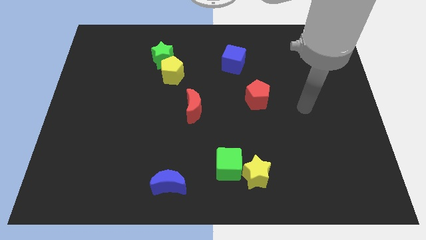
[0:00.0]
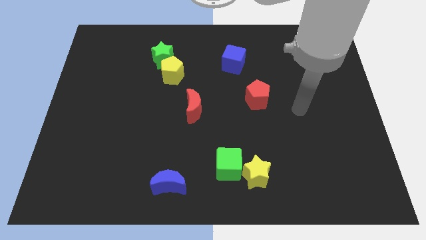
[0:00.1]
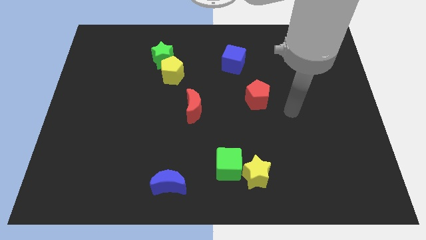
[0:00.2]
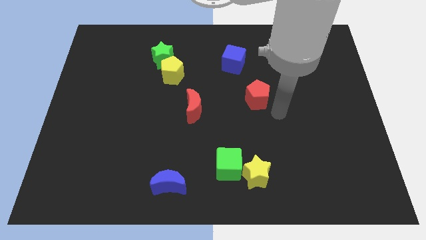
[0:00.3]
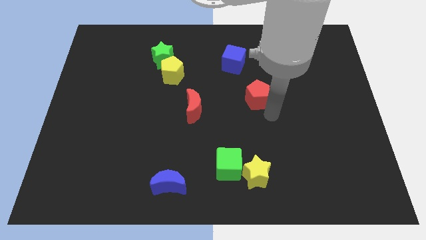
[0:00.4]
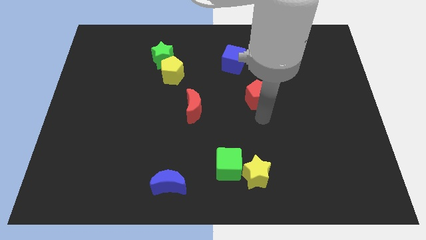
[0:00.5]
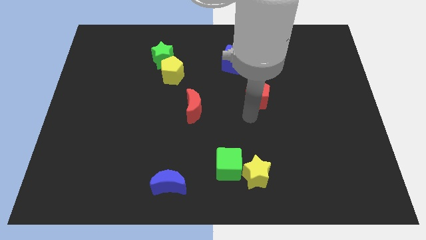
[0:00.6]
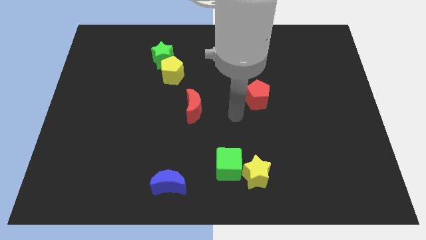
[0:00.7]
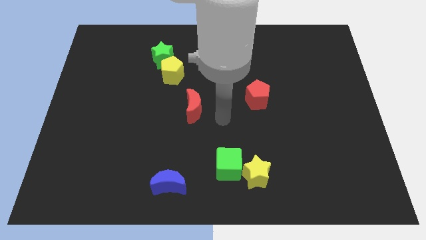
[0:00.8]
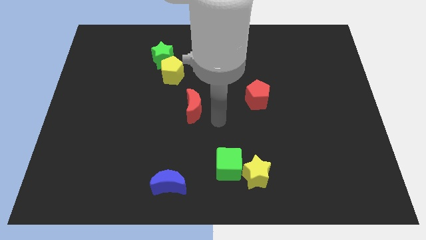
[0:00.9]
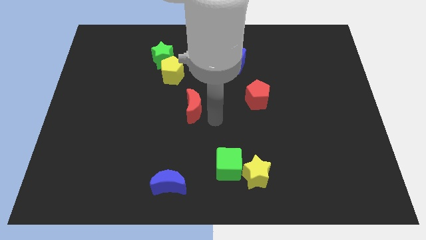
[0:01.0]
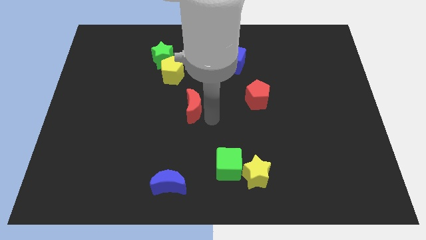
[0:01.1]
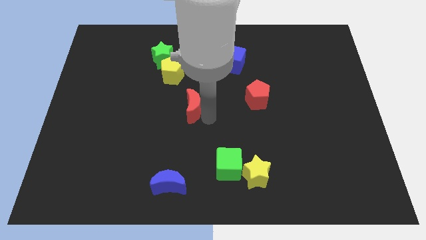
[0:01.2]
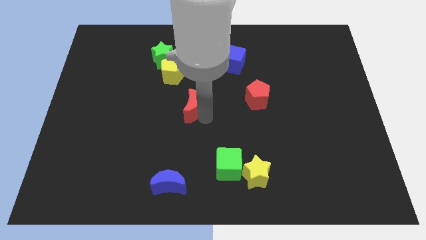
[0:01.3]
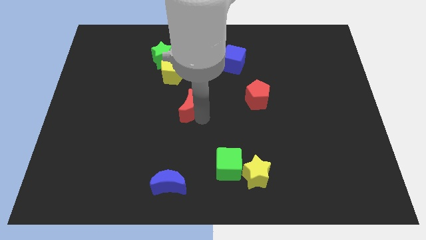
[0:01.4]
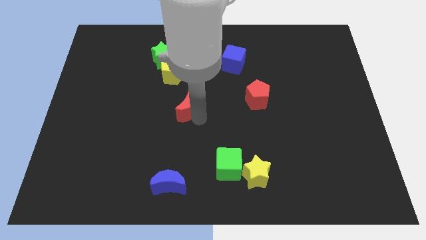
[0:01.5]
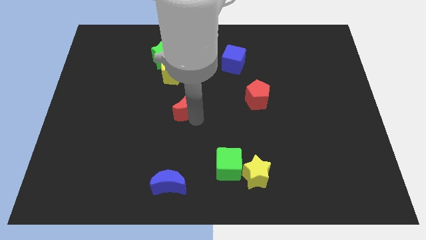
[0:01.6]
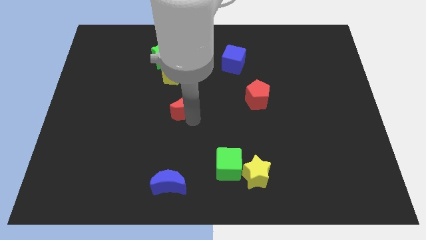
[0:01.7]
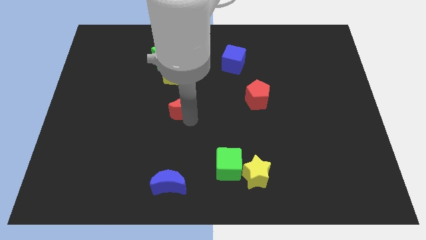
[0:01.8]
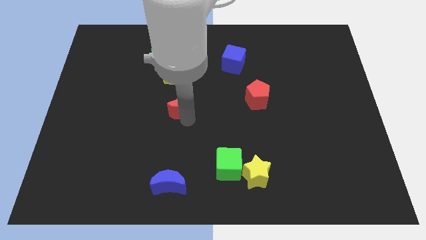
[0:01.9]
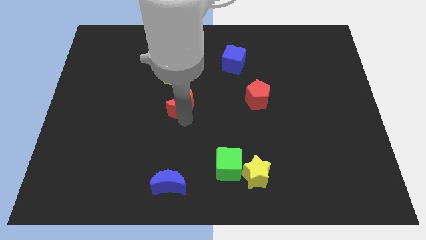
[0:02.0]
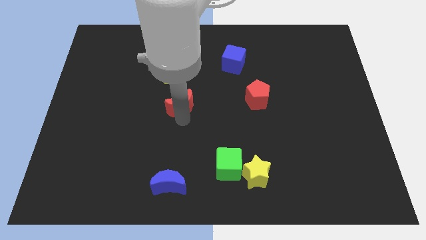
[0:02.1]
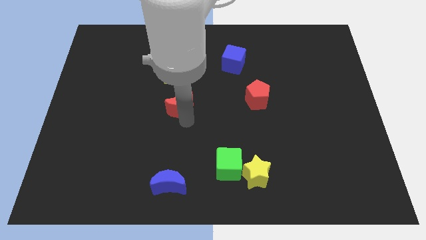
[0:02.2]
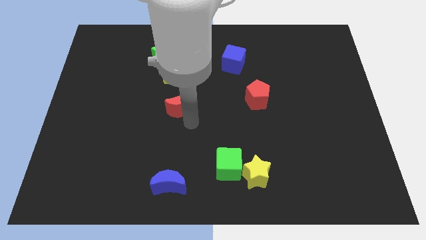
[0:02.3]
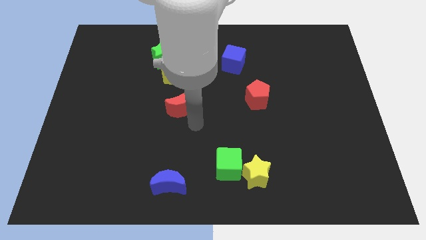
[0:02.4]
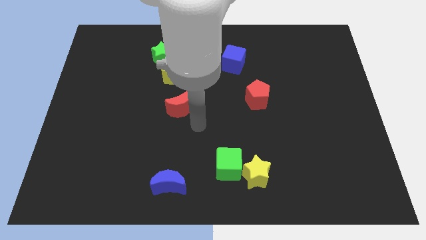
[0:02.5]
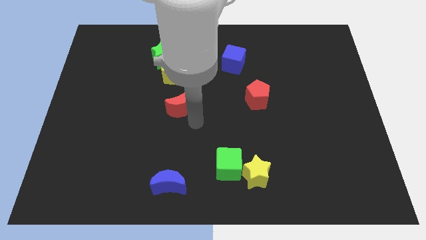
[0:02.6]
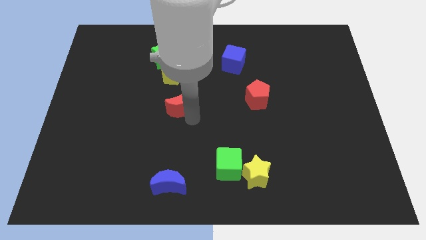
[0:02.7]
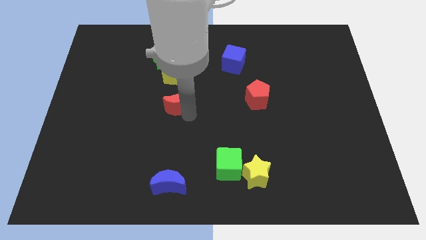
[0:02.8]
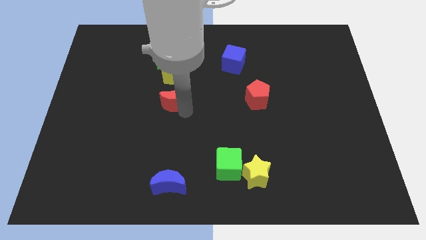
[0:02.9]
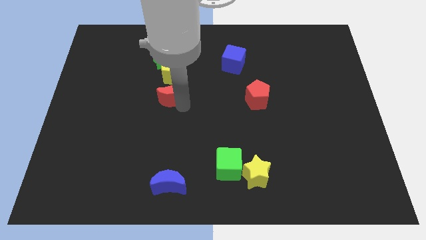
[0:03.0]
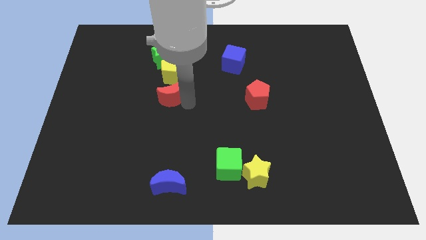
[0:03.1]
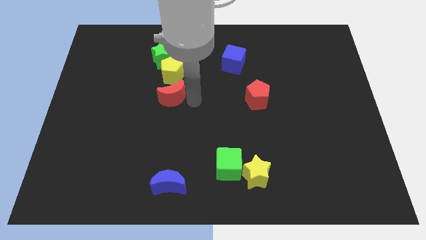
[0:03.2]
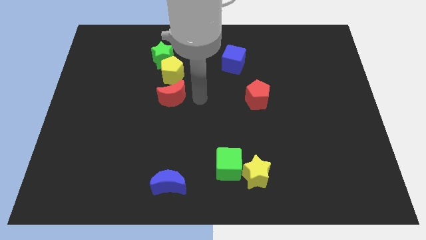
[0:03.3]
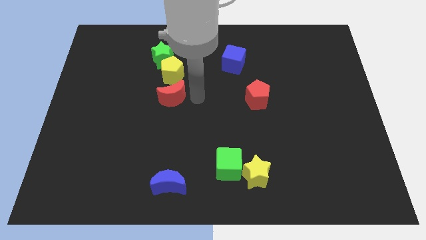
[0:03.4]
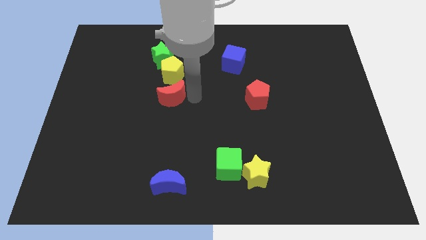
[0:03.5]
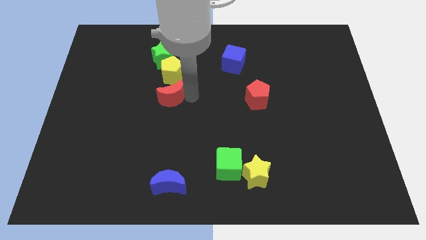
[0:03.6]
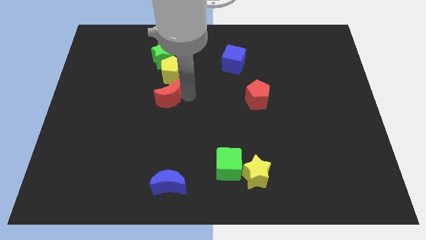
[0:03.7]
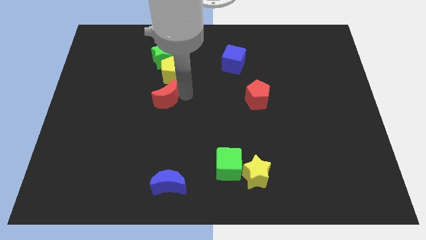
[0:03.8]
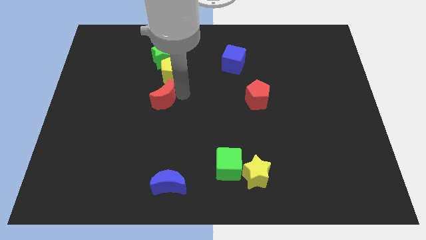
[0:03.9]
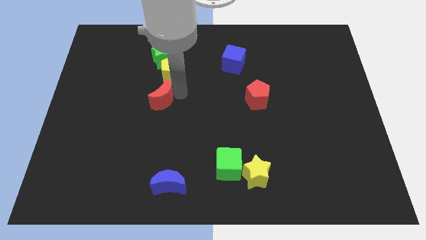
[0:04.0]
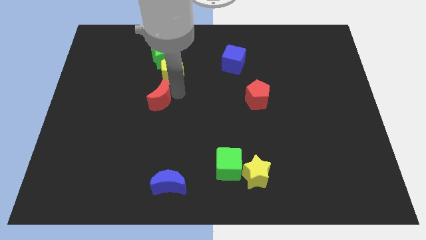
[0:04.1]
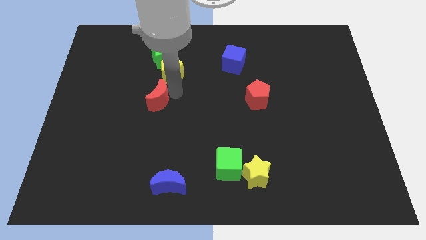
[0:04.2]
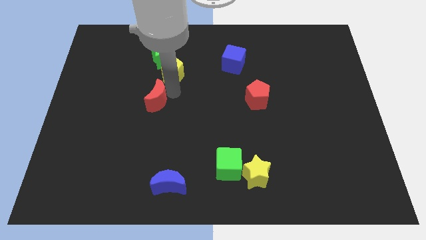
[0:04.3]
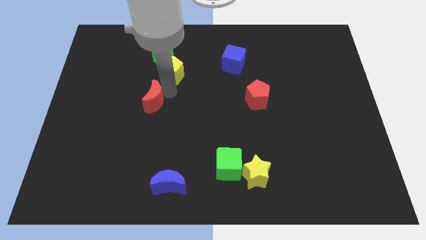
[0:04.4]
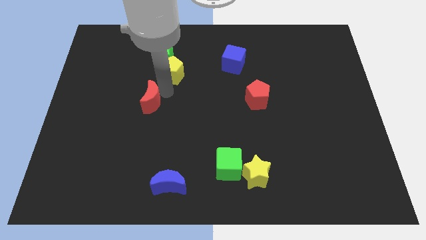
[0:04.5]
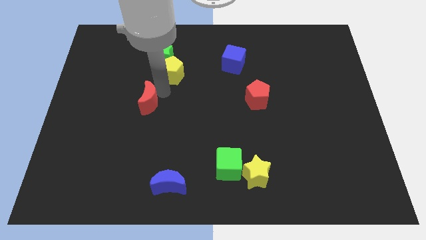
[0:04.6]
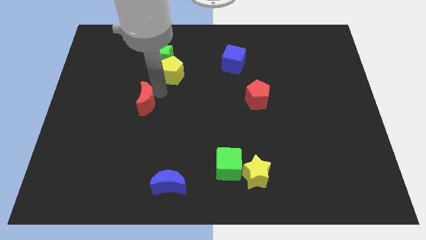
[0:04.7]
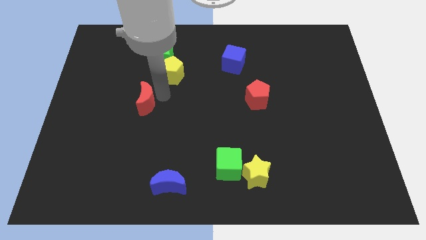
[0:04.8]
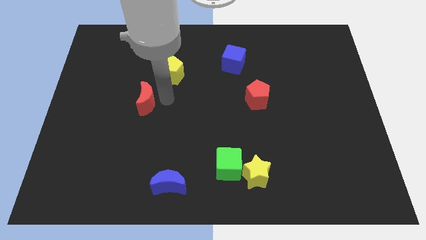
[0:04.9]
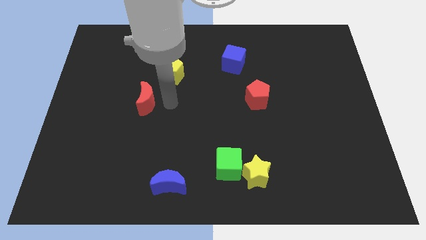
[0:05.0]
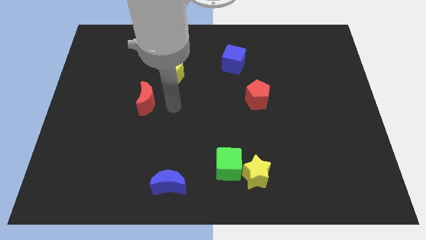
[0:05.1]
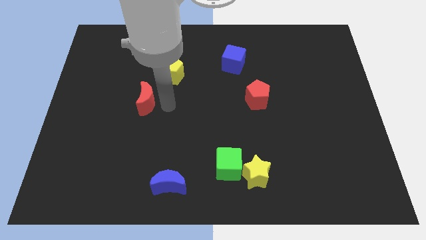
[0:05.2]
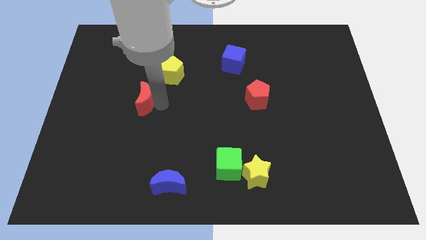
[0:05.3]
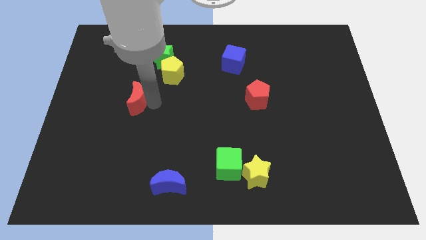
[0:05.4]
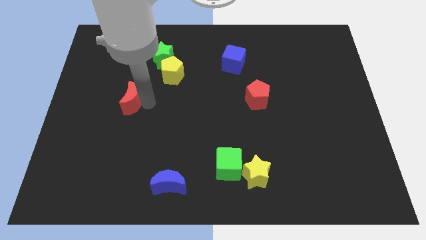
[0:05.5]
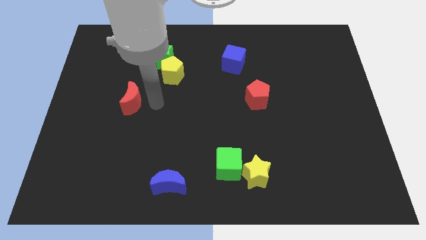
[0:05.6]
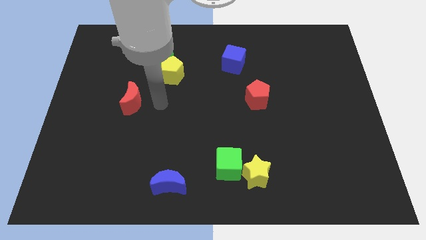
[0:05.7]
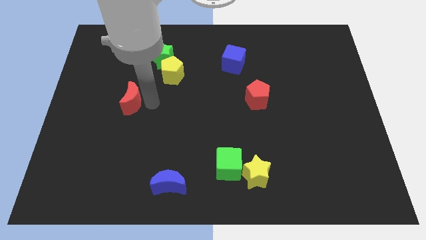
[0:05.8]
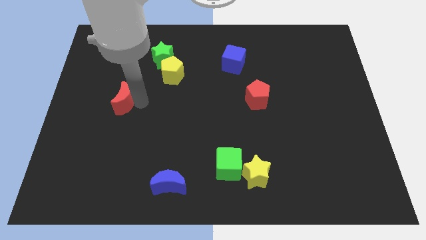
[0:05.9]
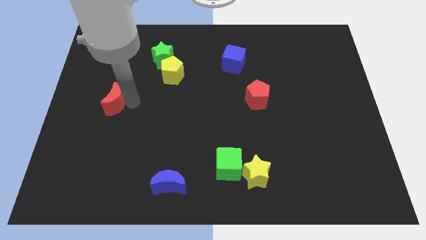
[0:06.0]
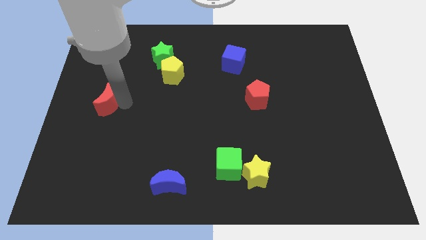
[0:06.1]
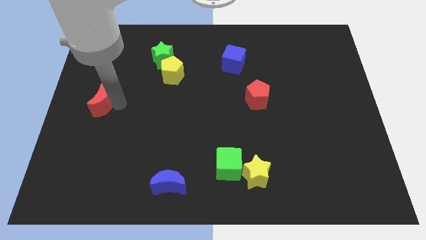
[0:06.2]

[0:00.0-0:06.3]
move the red moon to the left side of the board

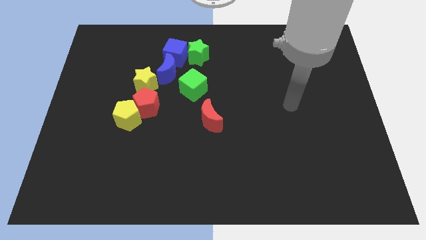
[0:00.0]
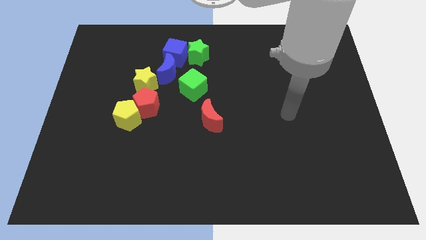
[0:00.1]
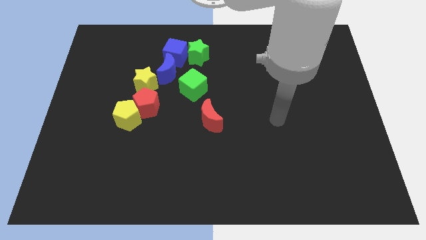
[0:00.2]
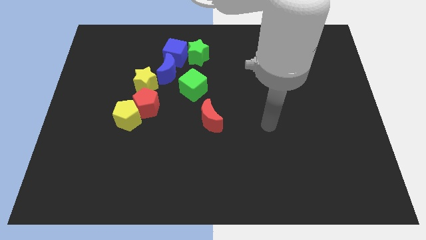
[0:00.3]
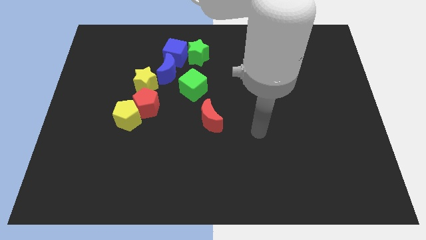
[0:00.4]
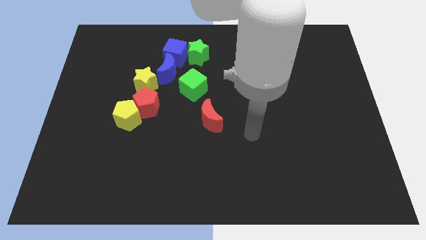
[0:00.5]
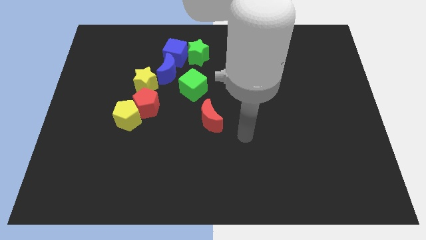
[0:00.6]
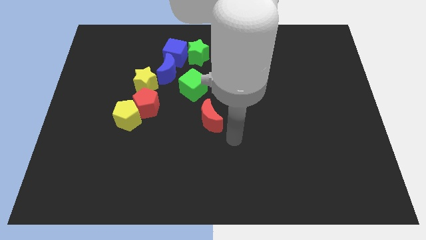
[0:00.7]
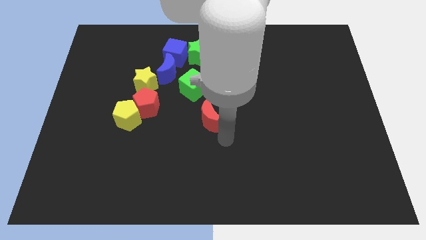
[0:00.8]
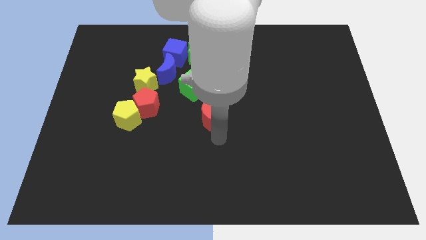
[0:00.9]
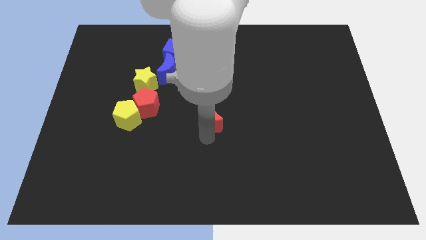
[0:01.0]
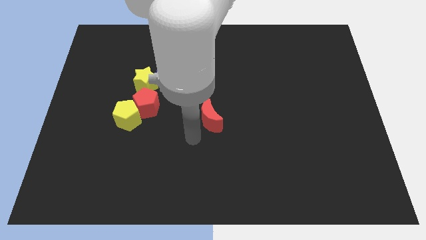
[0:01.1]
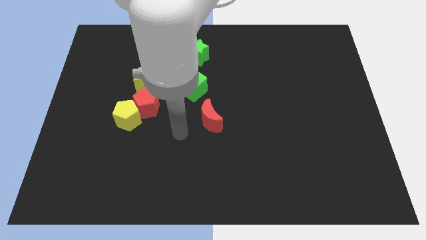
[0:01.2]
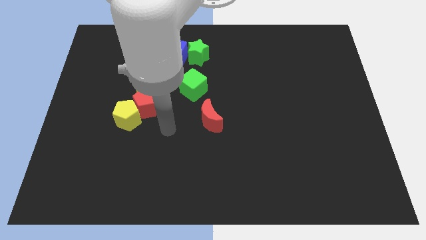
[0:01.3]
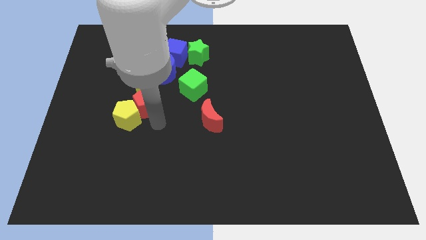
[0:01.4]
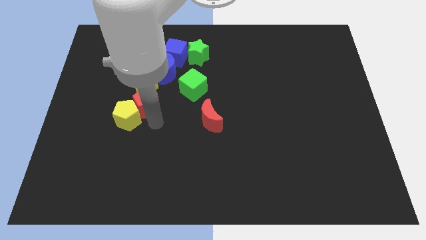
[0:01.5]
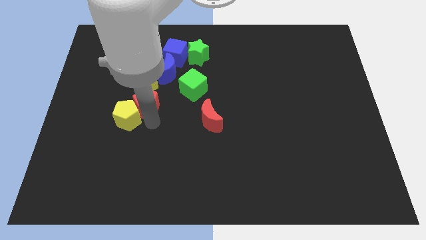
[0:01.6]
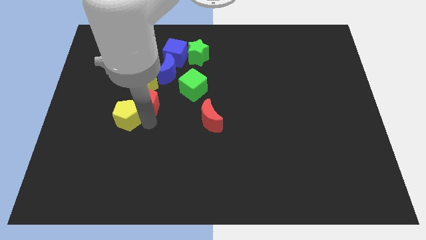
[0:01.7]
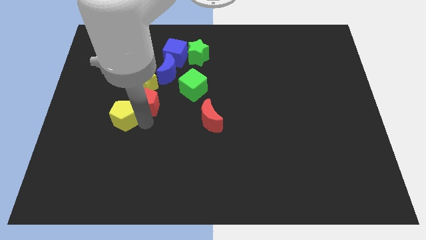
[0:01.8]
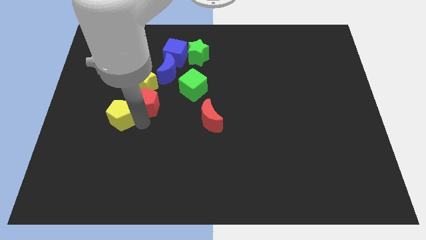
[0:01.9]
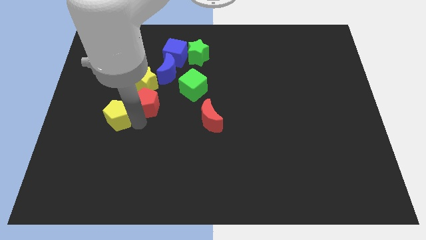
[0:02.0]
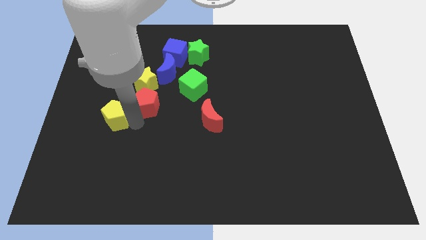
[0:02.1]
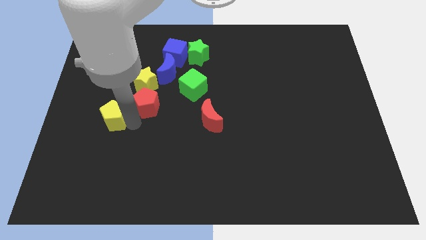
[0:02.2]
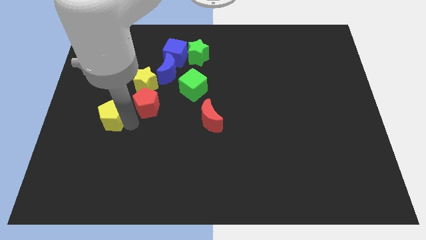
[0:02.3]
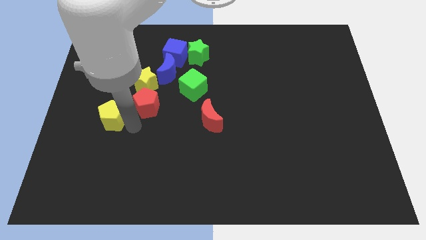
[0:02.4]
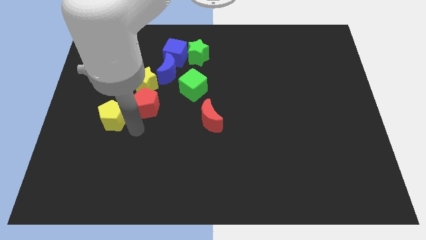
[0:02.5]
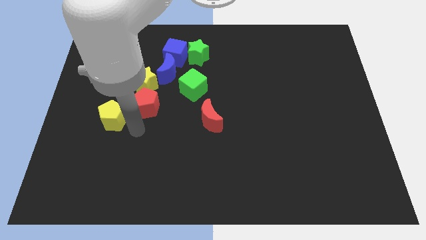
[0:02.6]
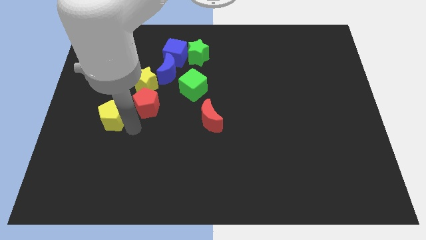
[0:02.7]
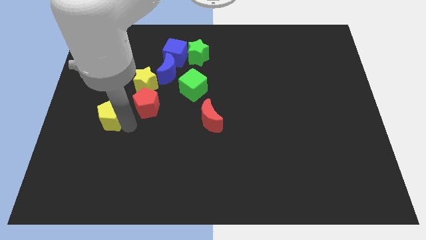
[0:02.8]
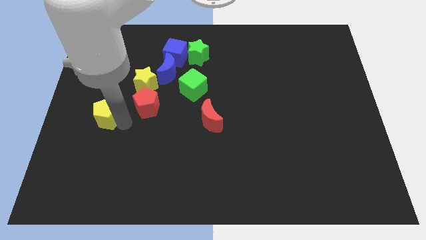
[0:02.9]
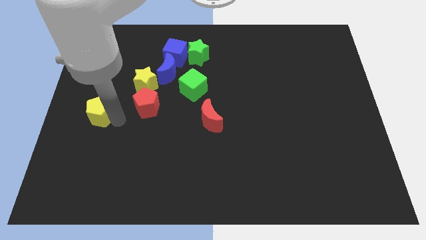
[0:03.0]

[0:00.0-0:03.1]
slide the yellow pentagon to the left side of the board
